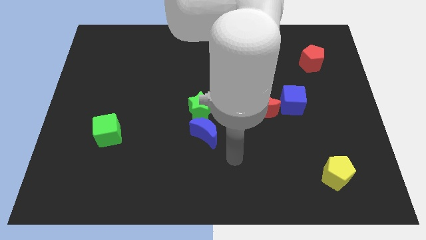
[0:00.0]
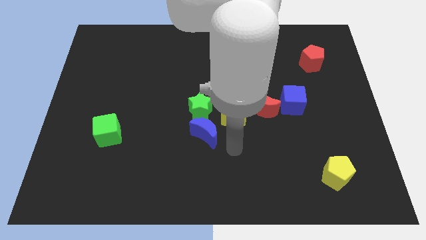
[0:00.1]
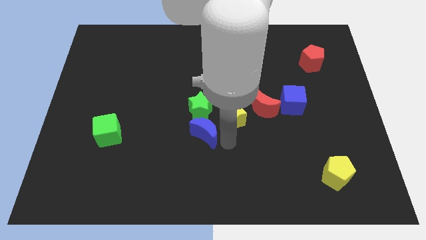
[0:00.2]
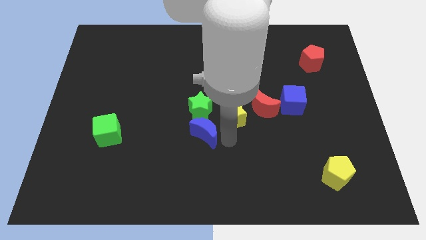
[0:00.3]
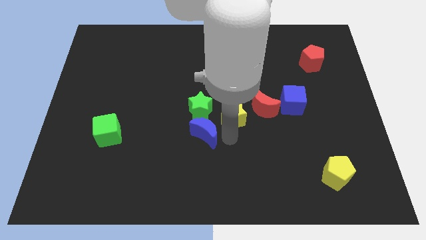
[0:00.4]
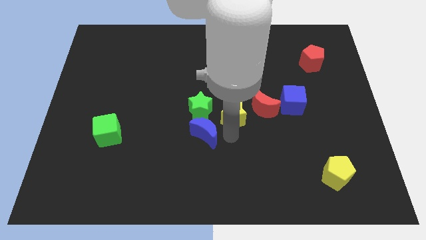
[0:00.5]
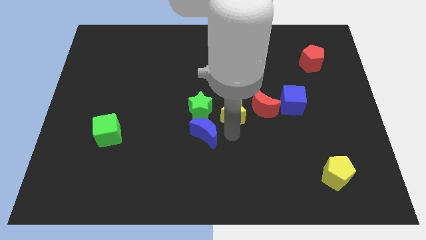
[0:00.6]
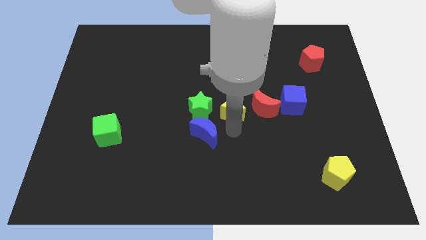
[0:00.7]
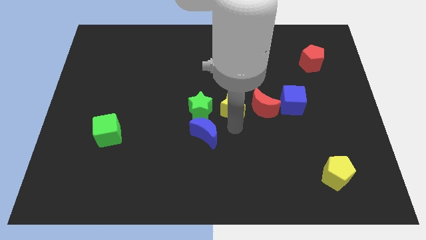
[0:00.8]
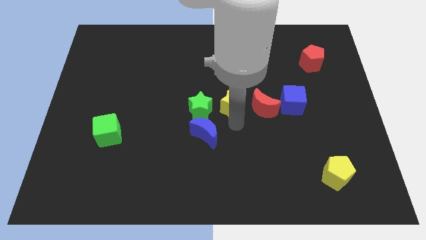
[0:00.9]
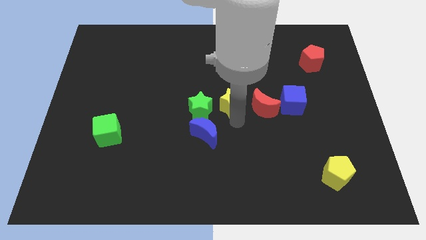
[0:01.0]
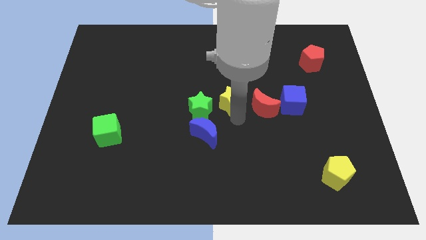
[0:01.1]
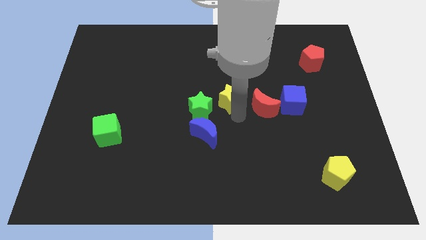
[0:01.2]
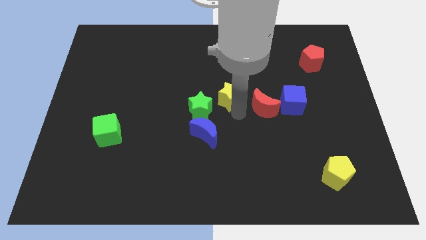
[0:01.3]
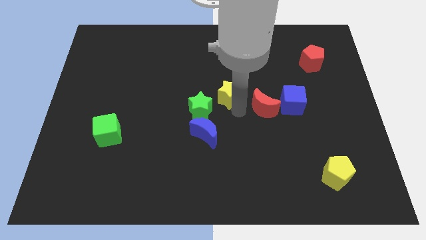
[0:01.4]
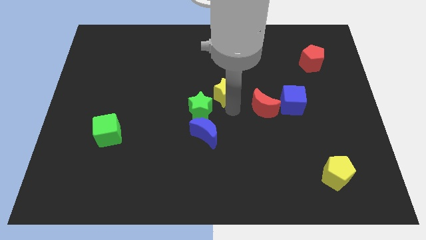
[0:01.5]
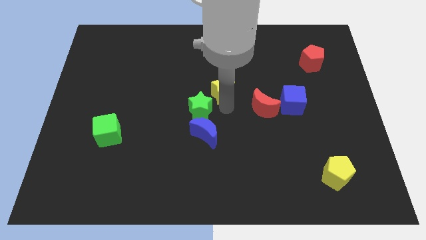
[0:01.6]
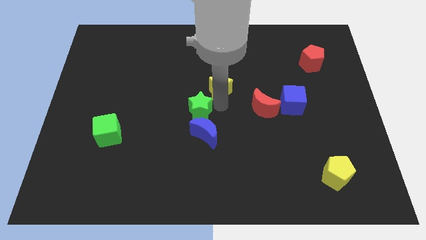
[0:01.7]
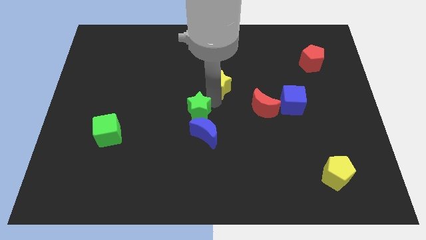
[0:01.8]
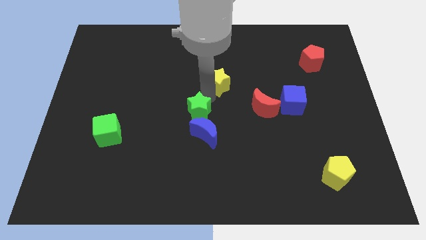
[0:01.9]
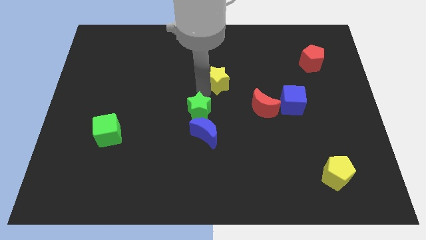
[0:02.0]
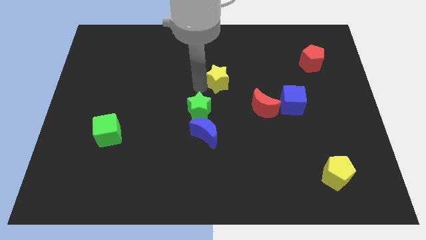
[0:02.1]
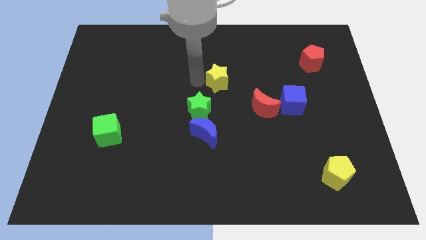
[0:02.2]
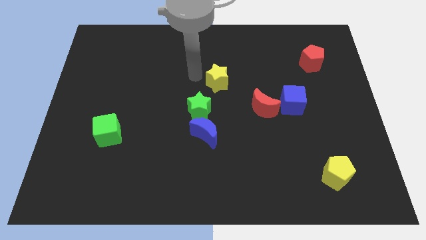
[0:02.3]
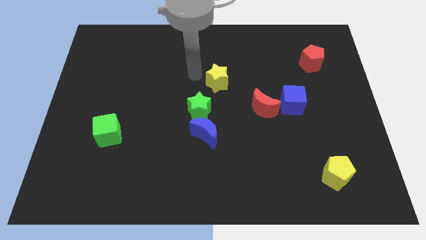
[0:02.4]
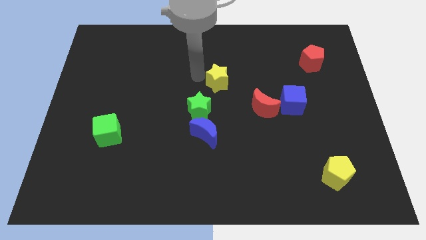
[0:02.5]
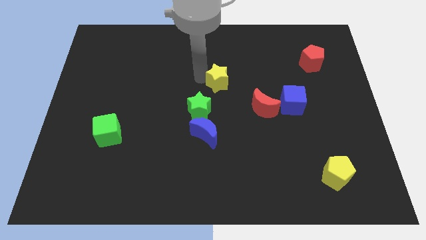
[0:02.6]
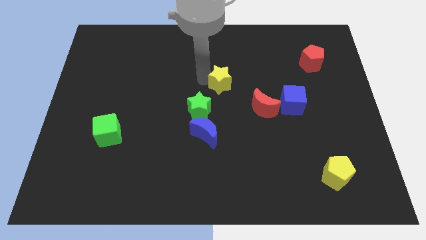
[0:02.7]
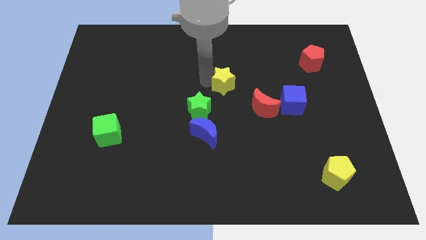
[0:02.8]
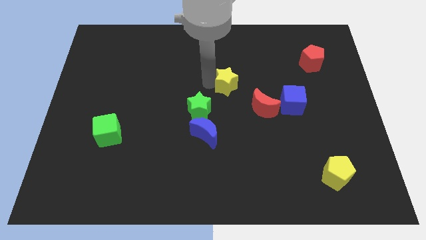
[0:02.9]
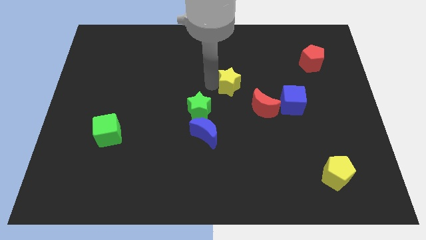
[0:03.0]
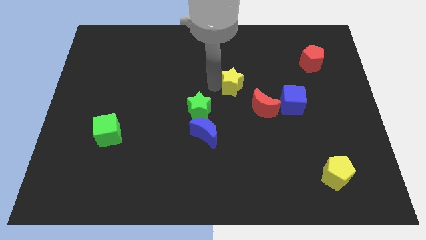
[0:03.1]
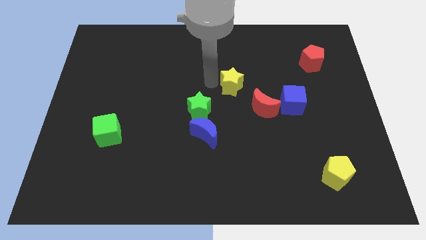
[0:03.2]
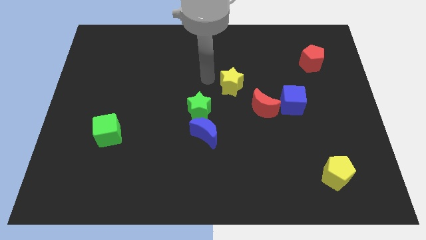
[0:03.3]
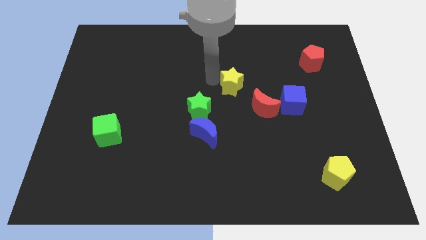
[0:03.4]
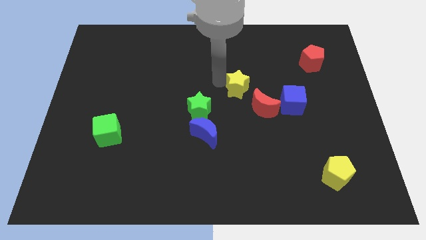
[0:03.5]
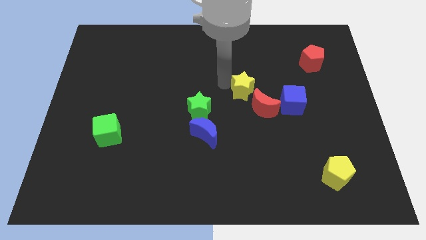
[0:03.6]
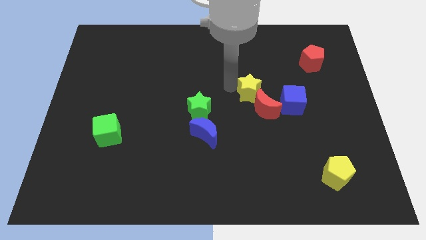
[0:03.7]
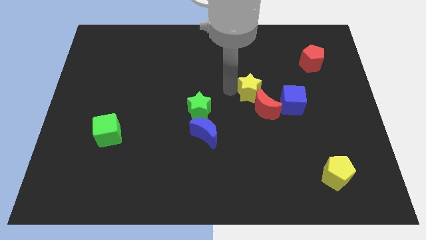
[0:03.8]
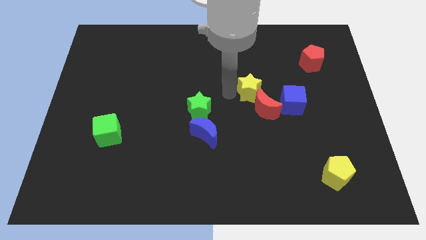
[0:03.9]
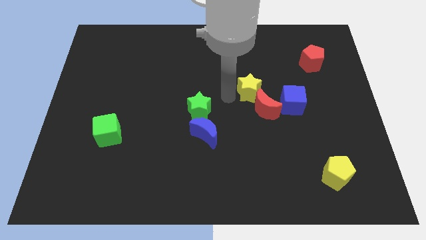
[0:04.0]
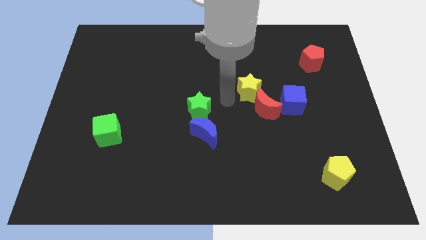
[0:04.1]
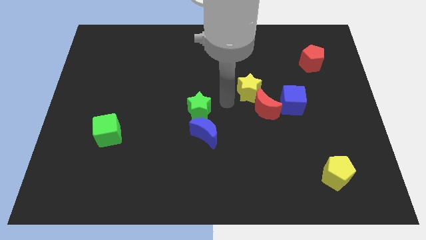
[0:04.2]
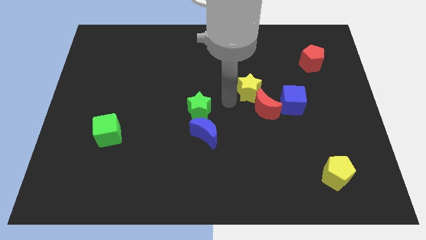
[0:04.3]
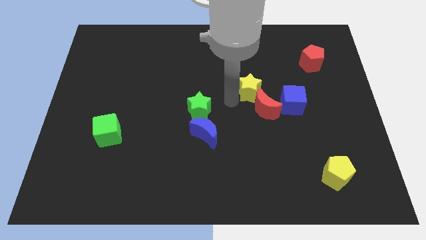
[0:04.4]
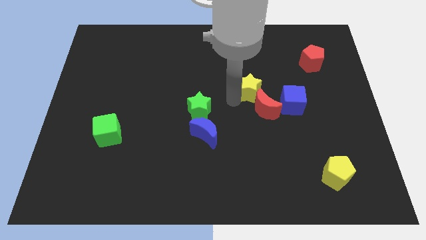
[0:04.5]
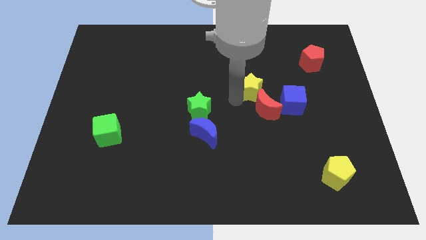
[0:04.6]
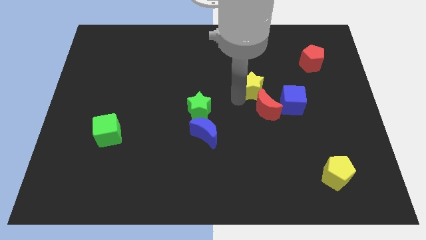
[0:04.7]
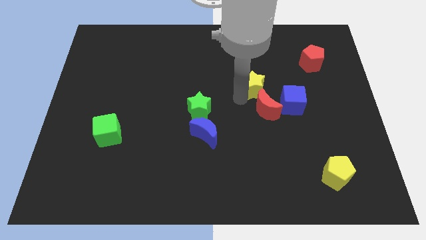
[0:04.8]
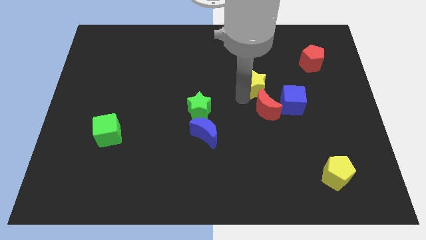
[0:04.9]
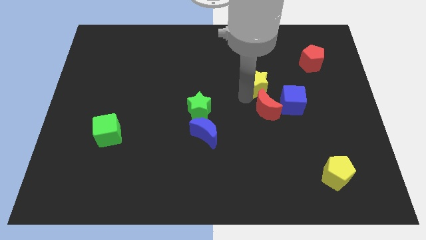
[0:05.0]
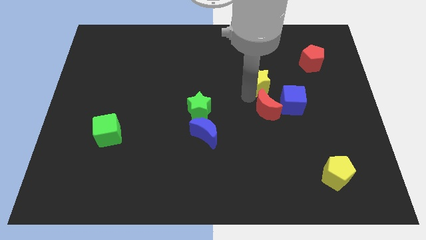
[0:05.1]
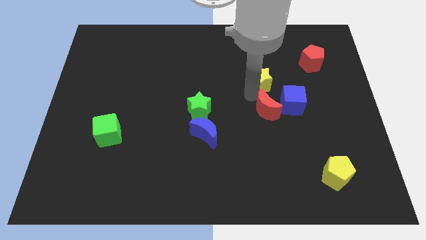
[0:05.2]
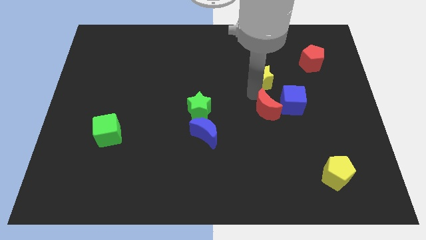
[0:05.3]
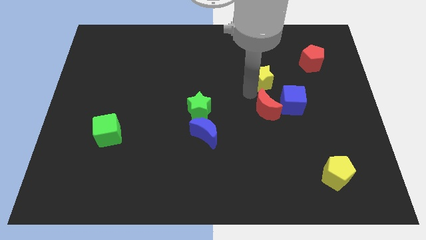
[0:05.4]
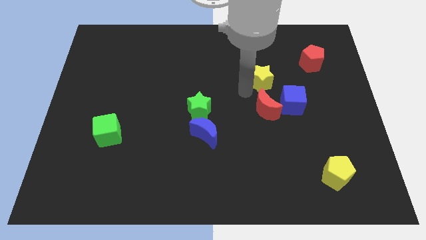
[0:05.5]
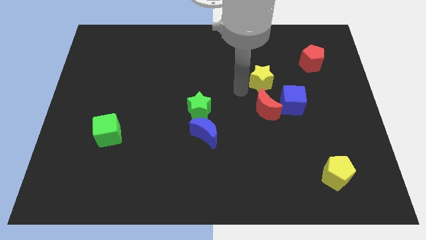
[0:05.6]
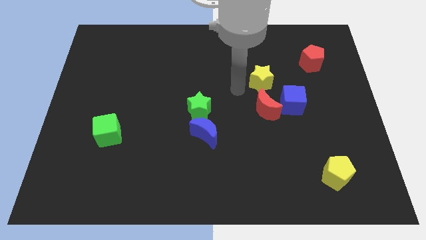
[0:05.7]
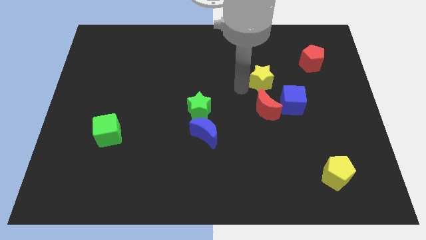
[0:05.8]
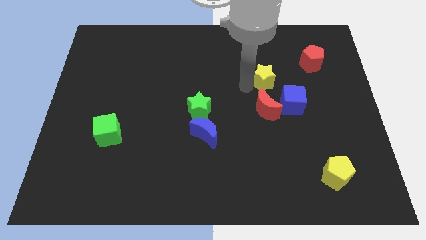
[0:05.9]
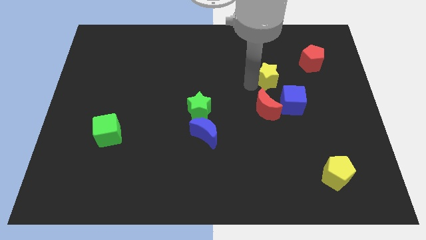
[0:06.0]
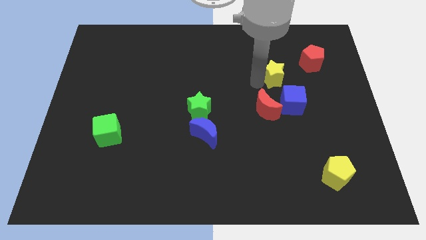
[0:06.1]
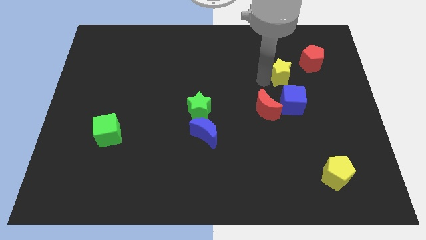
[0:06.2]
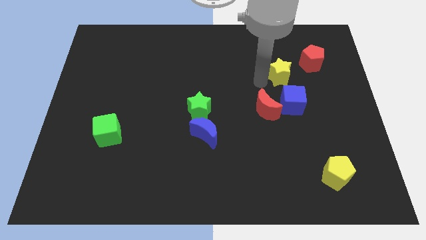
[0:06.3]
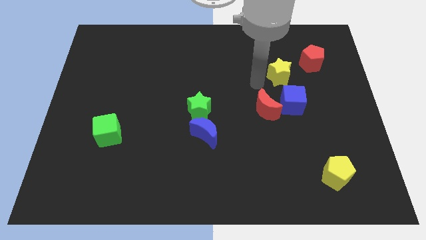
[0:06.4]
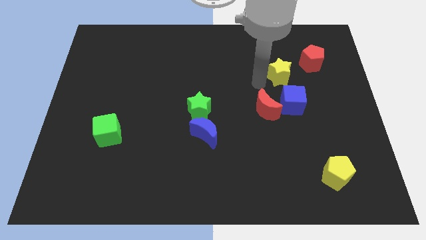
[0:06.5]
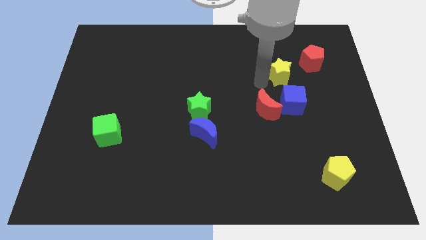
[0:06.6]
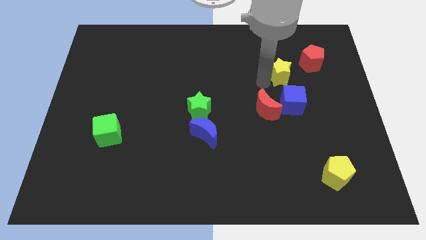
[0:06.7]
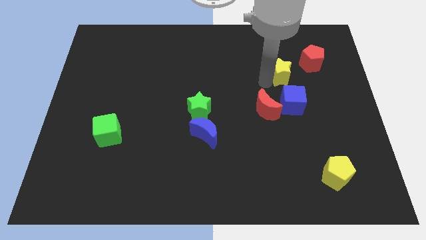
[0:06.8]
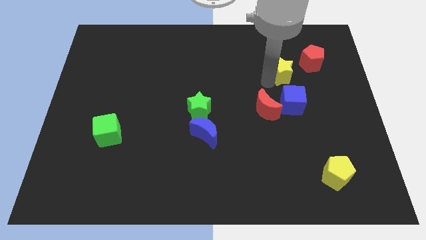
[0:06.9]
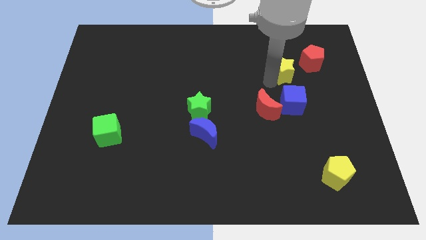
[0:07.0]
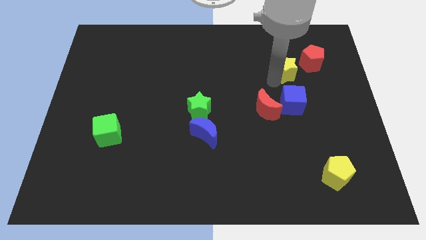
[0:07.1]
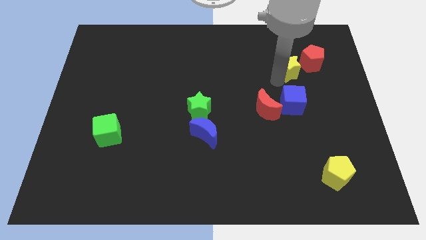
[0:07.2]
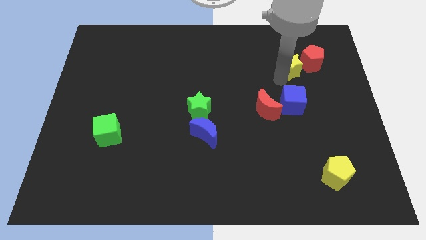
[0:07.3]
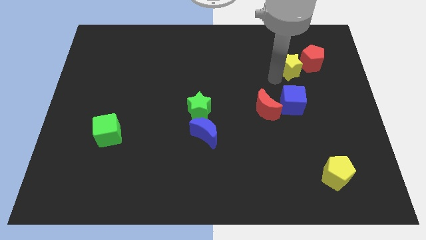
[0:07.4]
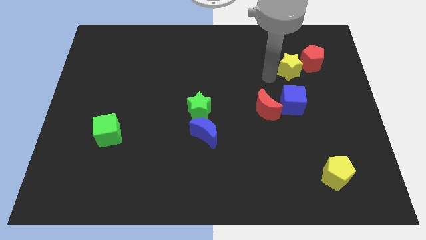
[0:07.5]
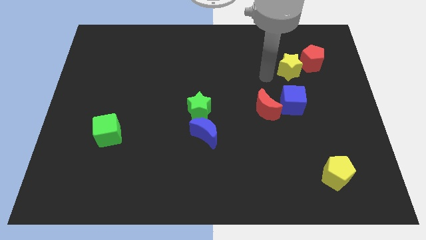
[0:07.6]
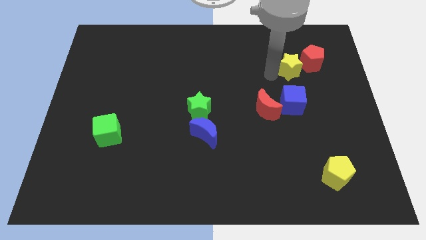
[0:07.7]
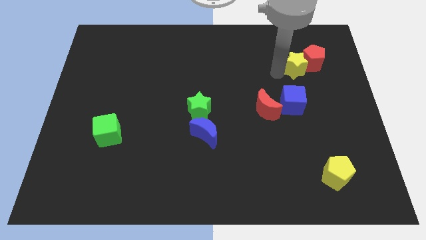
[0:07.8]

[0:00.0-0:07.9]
put the yellow star to the red pentagon

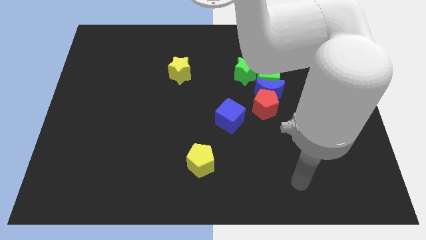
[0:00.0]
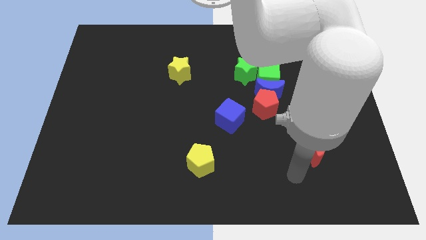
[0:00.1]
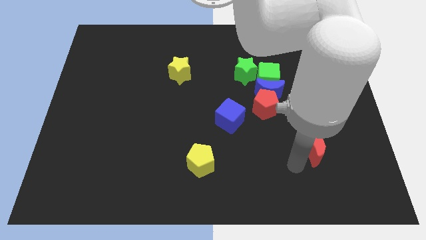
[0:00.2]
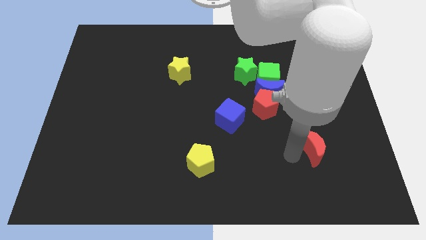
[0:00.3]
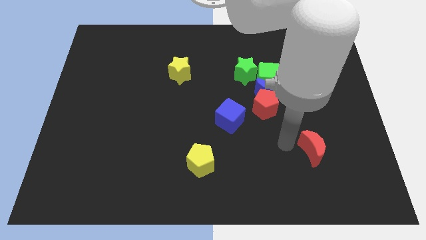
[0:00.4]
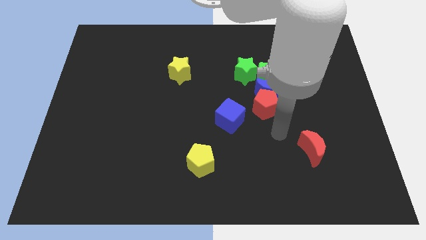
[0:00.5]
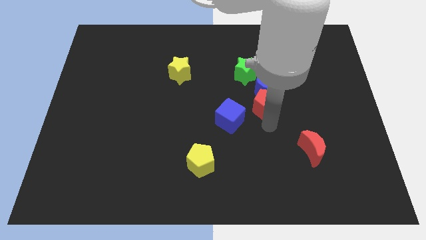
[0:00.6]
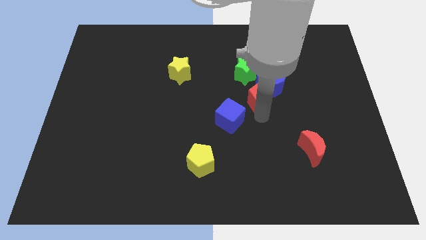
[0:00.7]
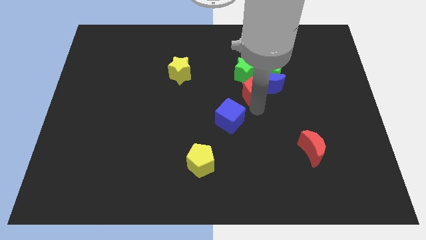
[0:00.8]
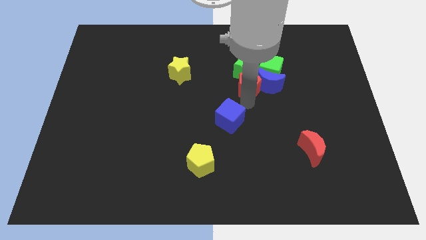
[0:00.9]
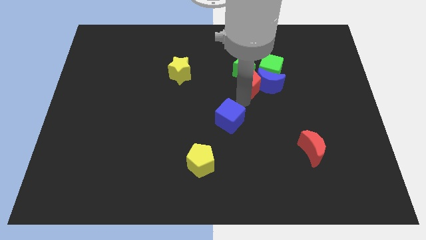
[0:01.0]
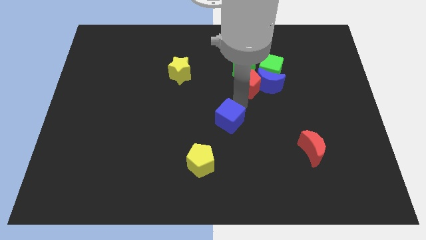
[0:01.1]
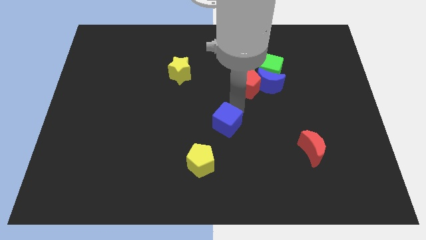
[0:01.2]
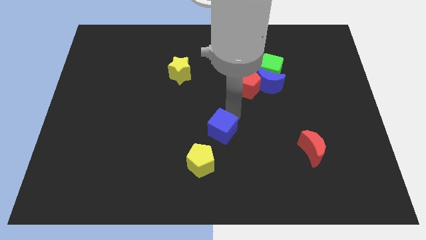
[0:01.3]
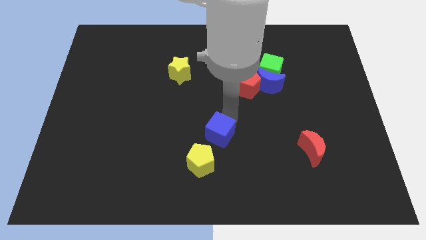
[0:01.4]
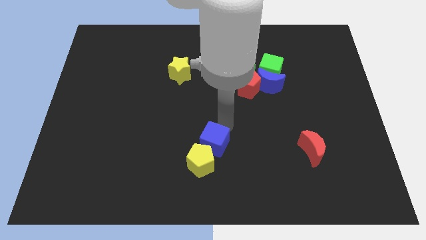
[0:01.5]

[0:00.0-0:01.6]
move the blue cube next to the yellow pentagon
